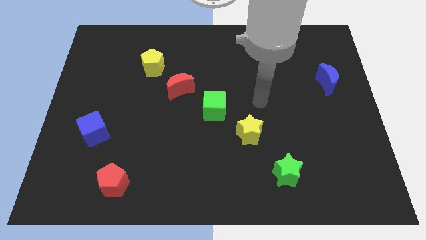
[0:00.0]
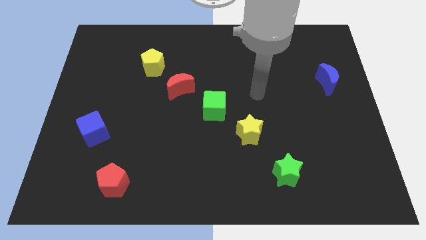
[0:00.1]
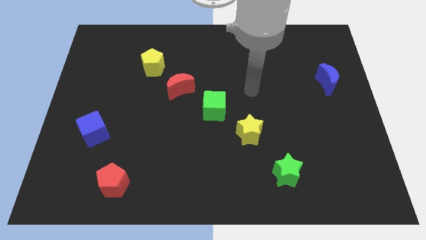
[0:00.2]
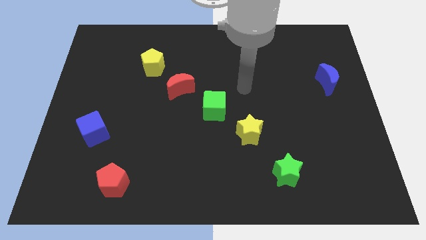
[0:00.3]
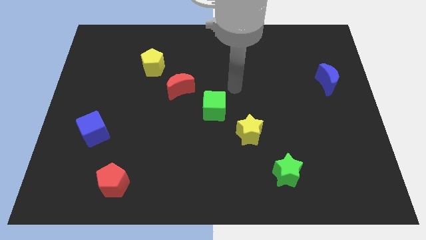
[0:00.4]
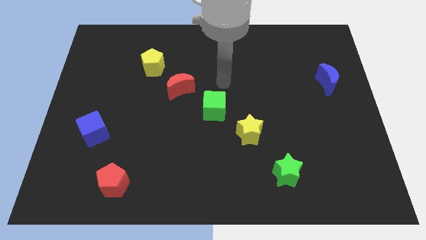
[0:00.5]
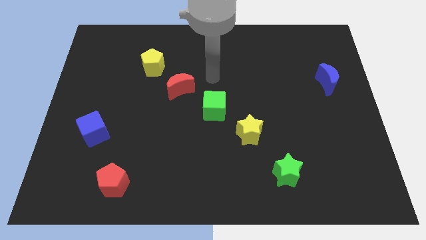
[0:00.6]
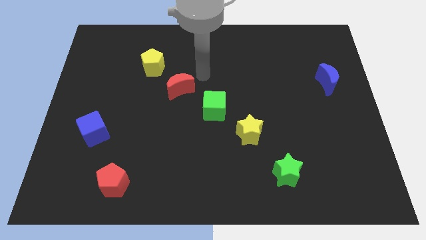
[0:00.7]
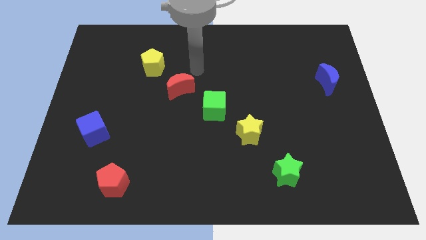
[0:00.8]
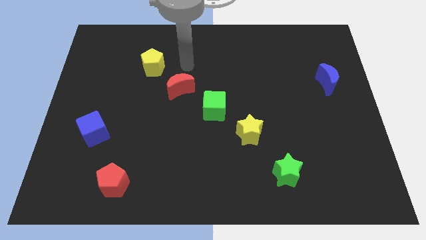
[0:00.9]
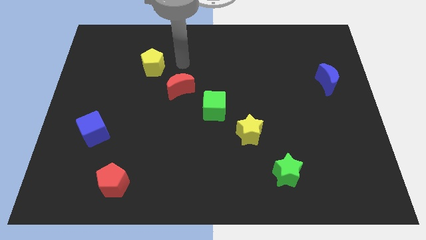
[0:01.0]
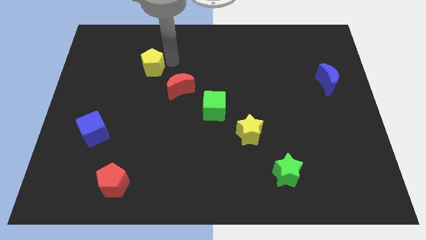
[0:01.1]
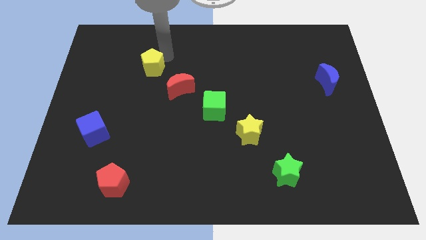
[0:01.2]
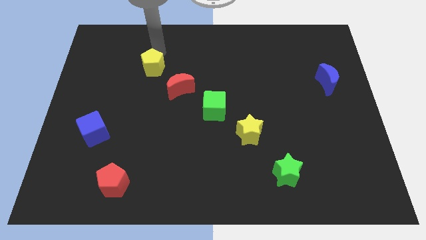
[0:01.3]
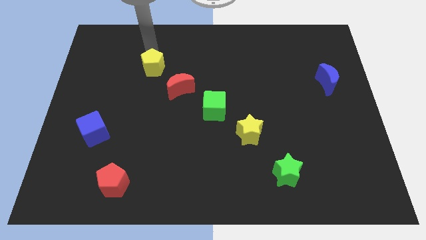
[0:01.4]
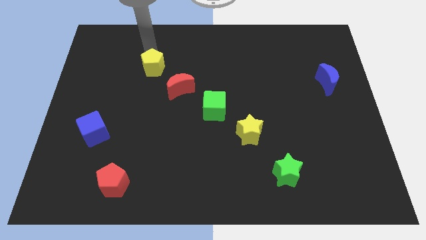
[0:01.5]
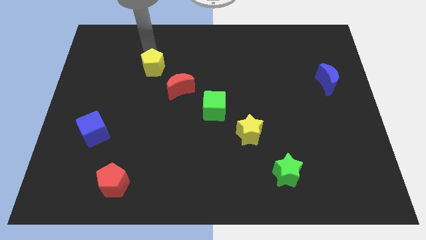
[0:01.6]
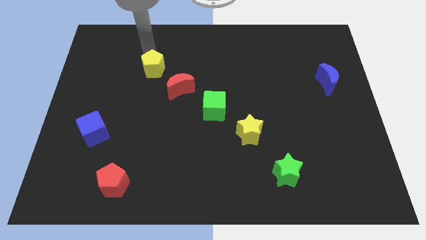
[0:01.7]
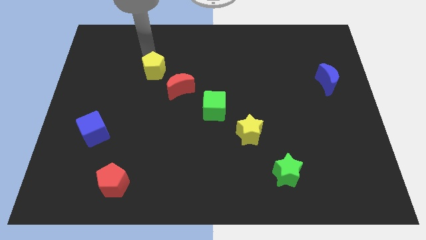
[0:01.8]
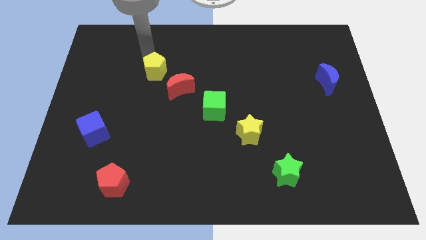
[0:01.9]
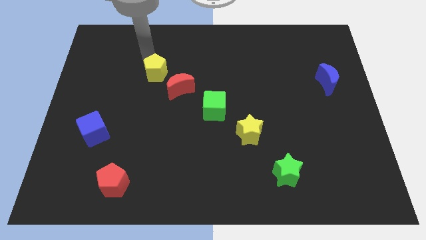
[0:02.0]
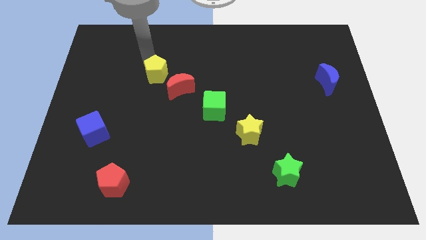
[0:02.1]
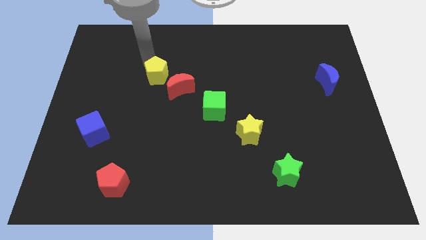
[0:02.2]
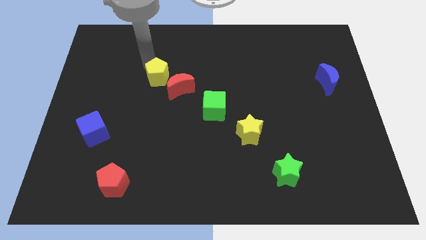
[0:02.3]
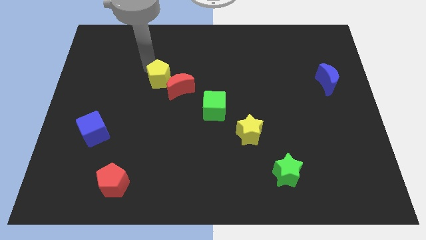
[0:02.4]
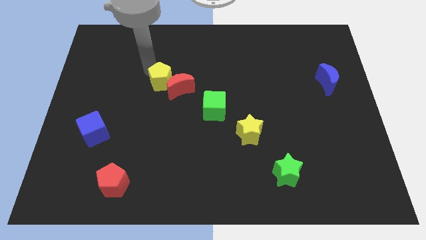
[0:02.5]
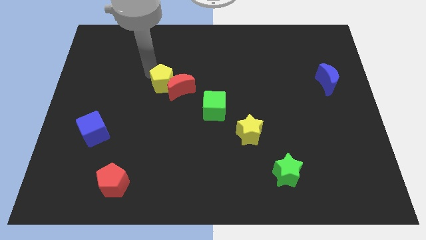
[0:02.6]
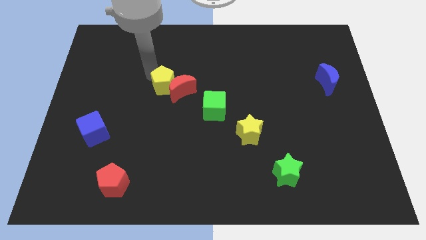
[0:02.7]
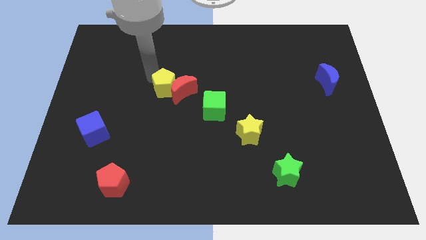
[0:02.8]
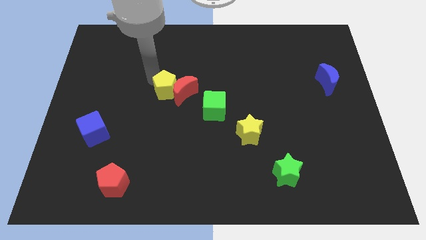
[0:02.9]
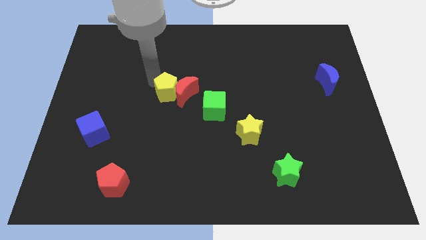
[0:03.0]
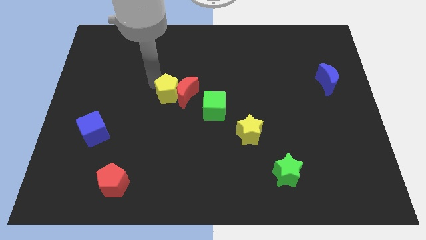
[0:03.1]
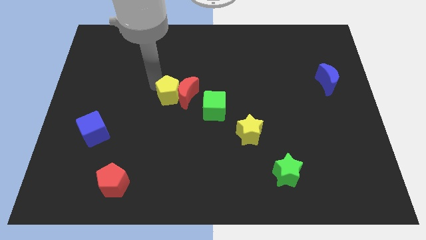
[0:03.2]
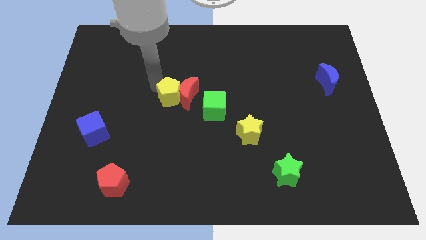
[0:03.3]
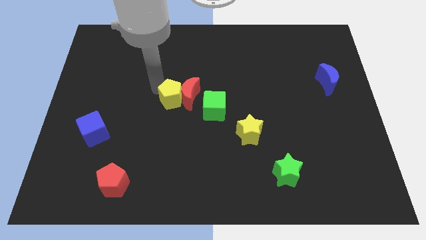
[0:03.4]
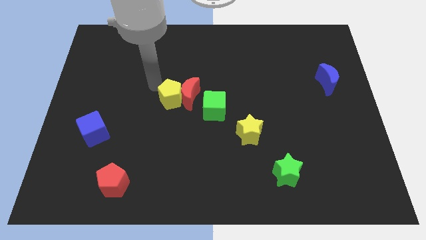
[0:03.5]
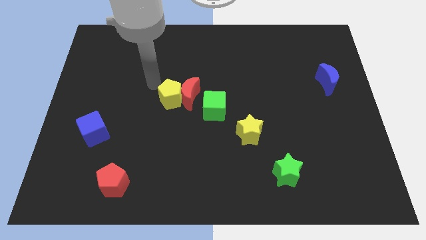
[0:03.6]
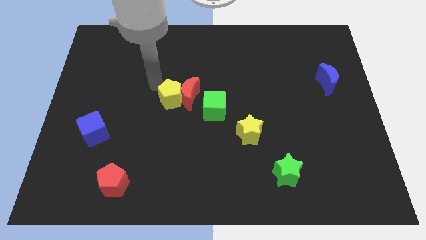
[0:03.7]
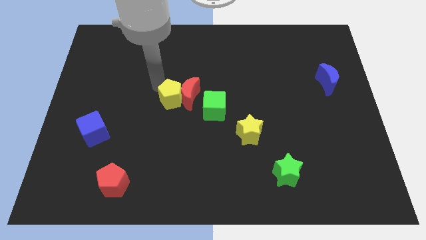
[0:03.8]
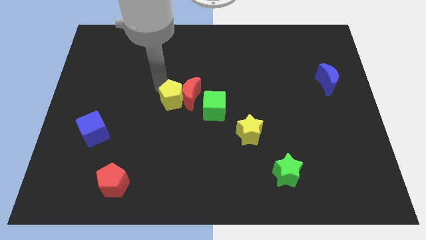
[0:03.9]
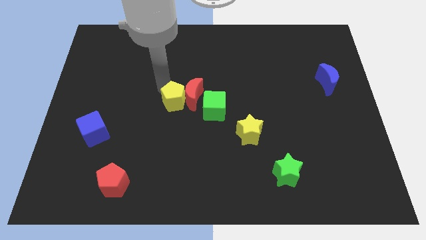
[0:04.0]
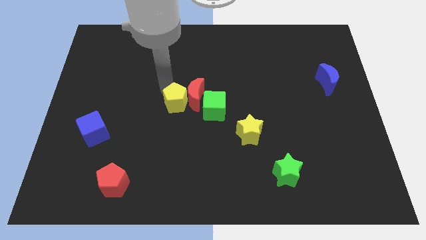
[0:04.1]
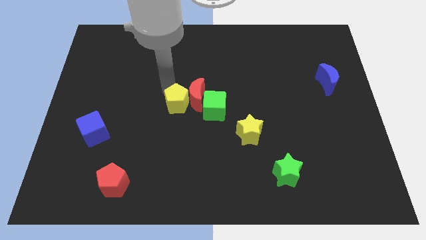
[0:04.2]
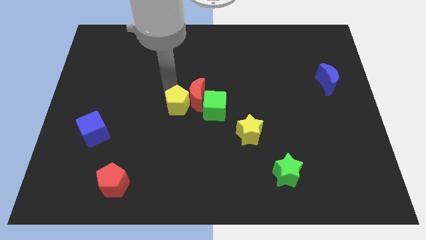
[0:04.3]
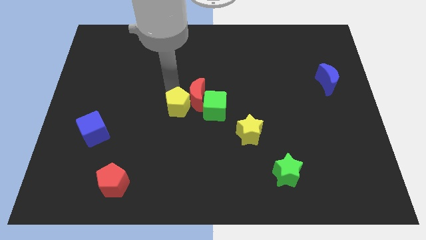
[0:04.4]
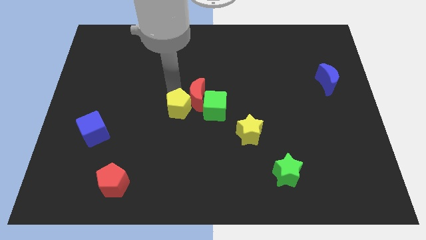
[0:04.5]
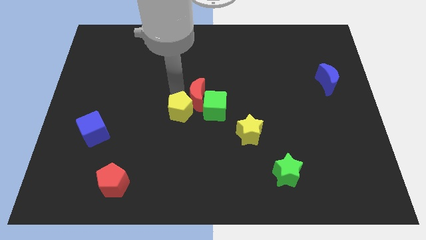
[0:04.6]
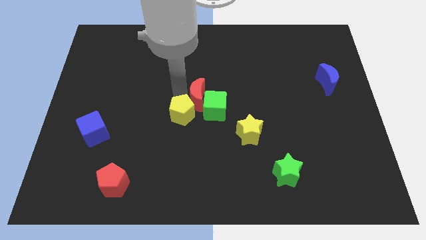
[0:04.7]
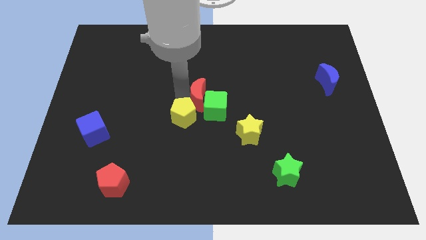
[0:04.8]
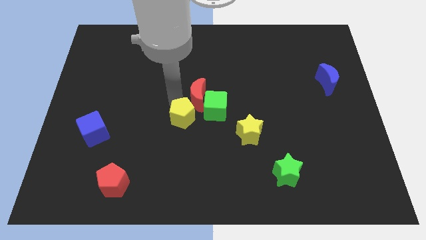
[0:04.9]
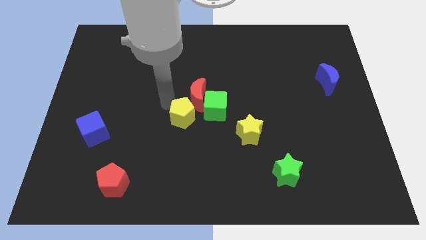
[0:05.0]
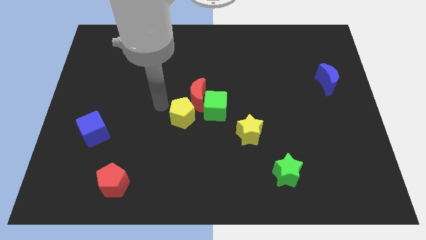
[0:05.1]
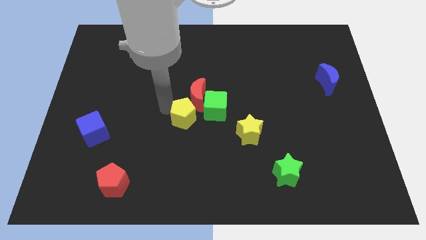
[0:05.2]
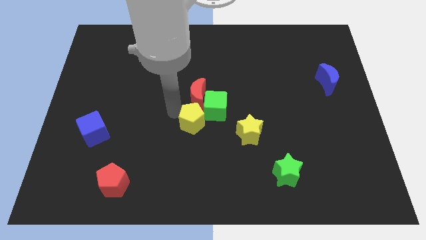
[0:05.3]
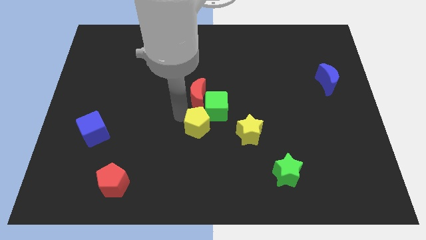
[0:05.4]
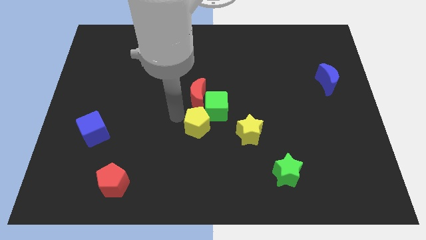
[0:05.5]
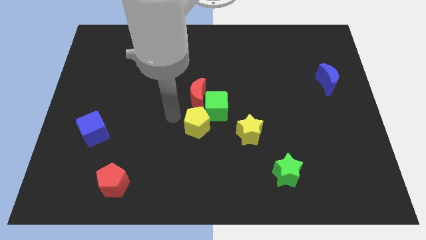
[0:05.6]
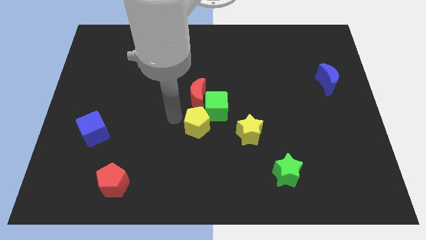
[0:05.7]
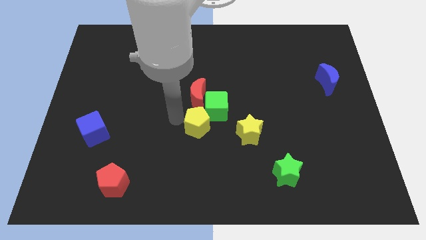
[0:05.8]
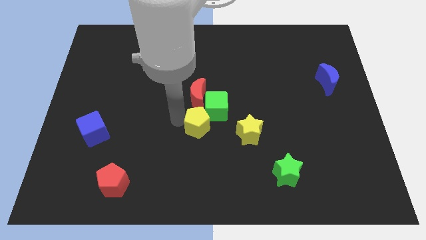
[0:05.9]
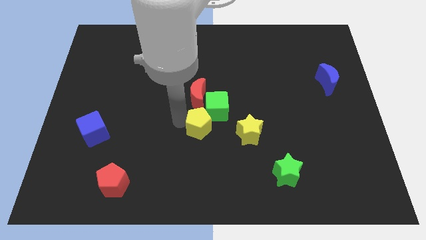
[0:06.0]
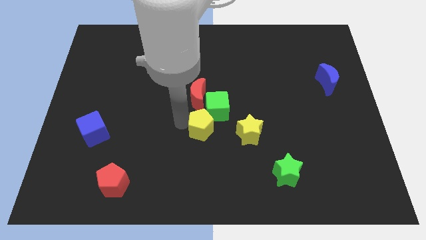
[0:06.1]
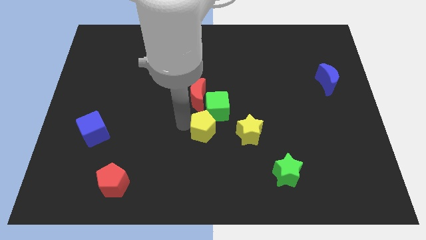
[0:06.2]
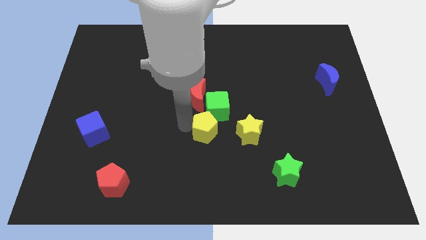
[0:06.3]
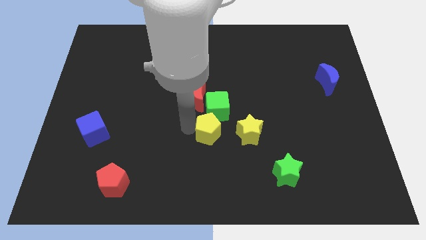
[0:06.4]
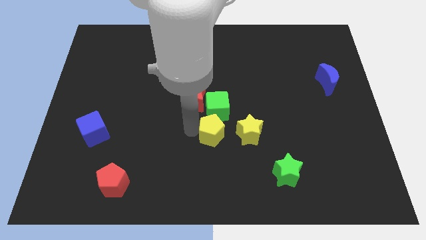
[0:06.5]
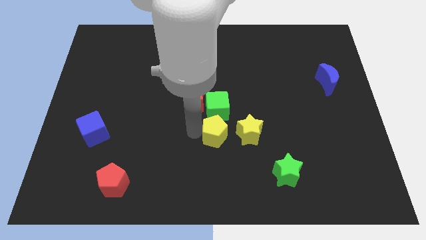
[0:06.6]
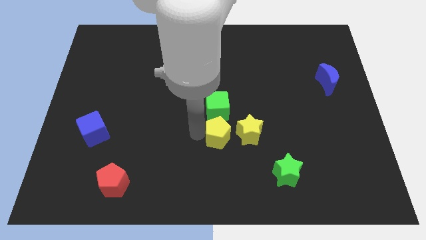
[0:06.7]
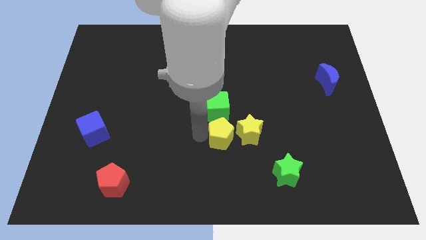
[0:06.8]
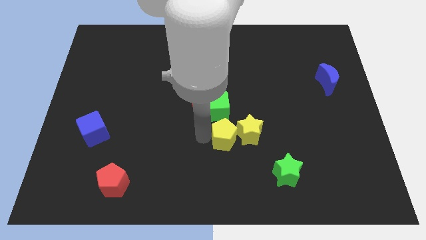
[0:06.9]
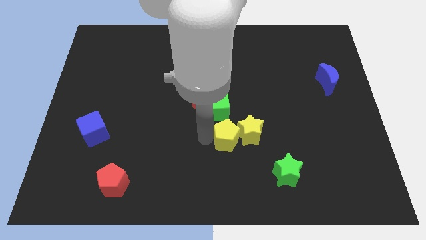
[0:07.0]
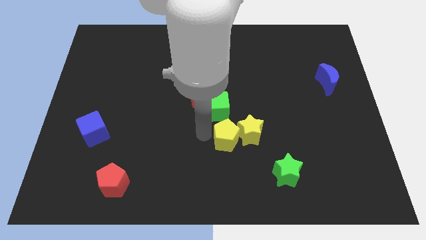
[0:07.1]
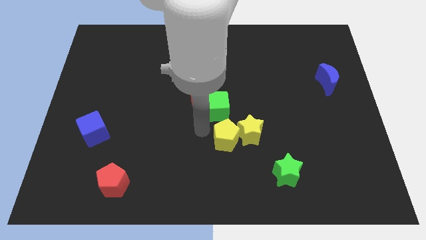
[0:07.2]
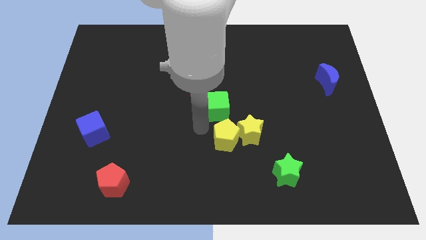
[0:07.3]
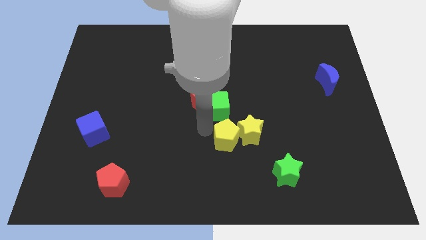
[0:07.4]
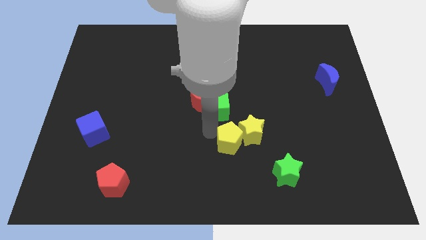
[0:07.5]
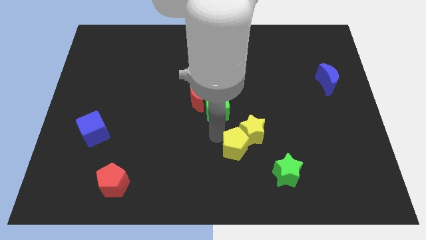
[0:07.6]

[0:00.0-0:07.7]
slide the yellow pentagon to the top left of the green star

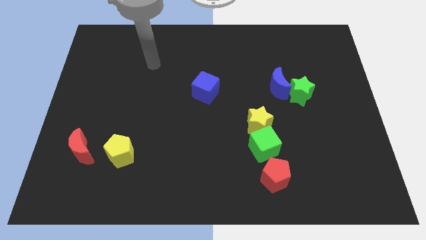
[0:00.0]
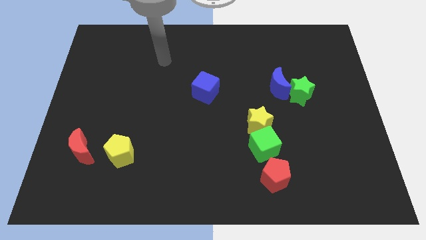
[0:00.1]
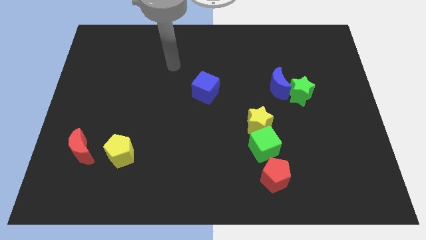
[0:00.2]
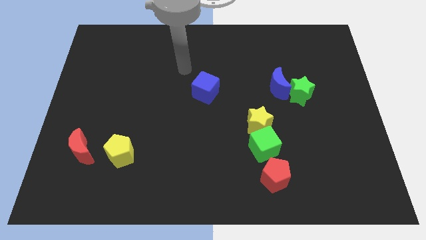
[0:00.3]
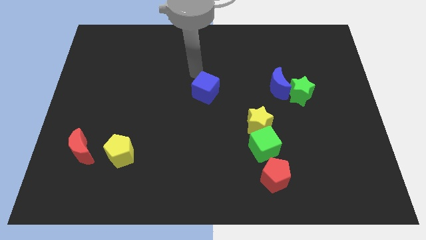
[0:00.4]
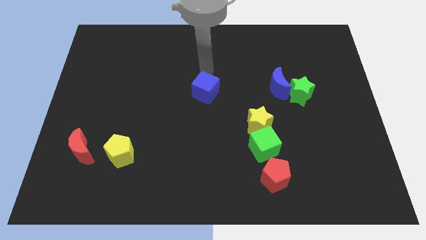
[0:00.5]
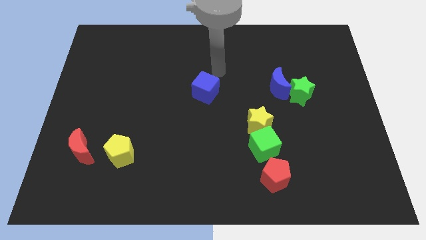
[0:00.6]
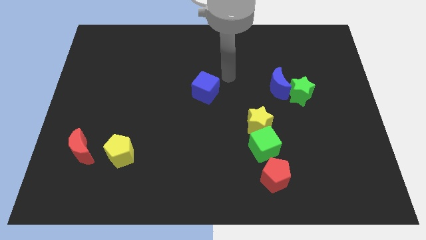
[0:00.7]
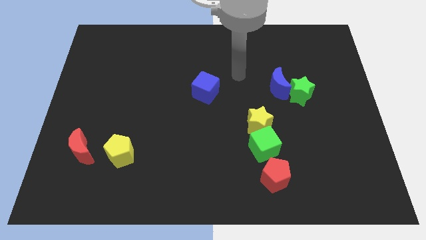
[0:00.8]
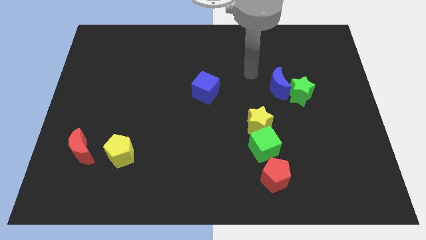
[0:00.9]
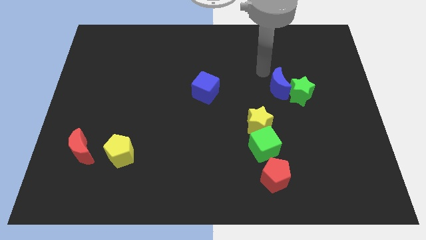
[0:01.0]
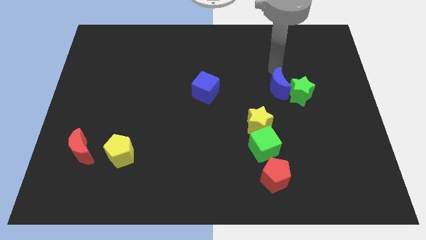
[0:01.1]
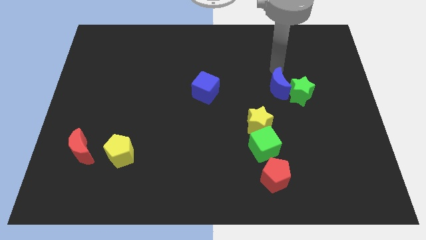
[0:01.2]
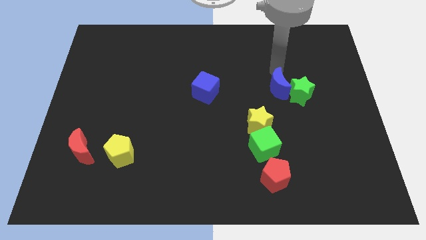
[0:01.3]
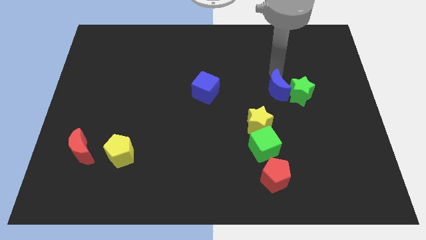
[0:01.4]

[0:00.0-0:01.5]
push the blue moon to the bottom left of the green star
